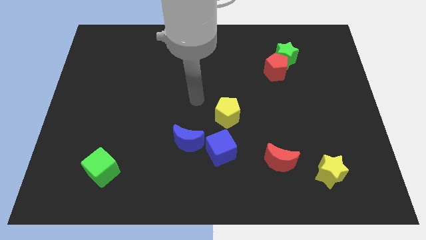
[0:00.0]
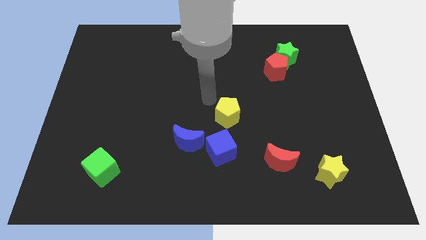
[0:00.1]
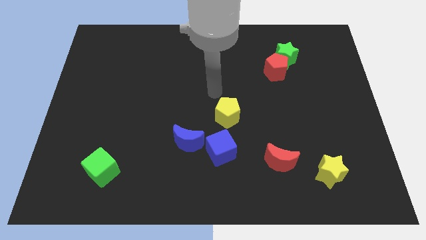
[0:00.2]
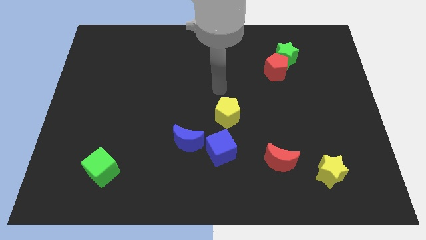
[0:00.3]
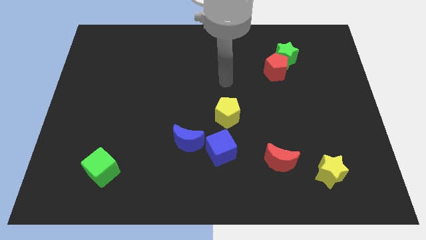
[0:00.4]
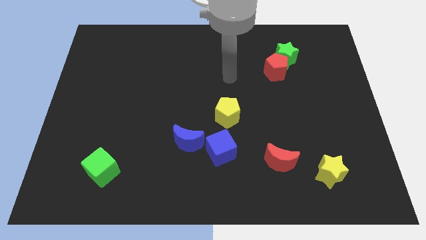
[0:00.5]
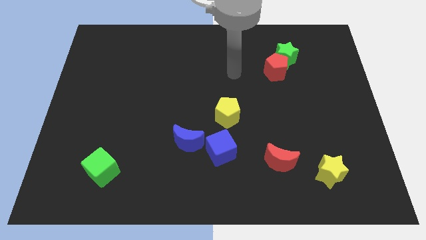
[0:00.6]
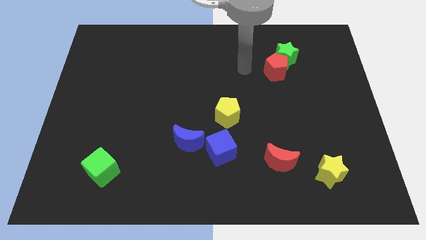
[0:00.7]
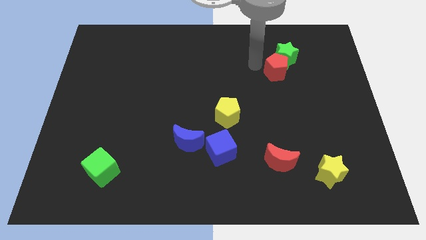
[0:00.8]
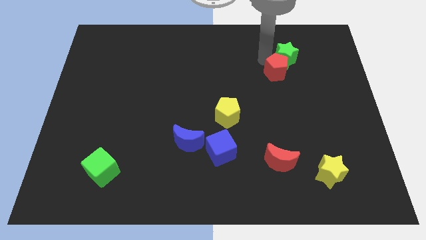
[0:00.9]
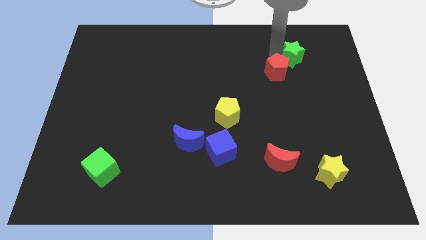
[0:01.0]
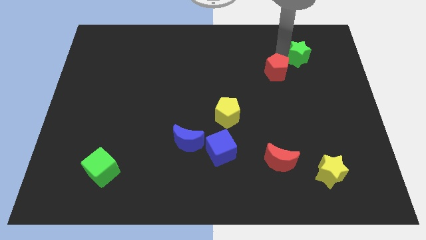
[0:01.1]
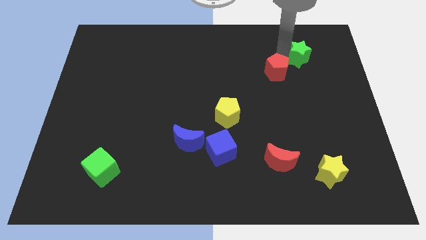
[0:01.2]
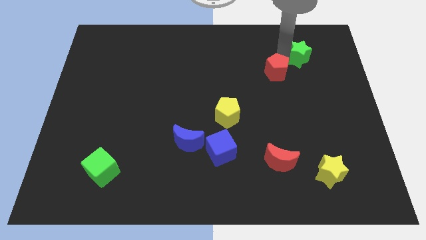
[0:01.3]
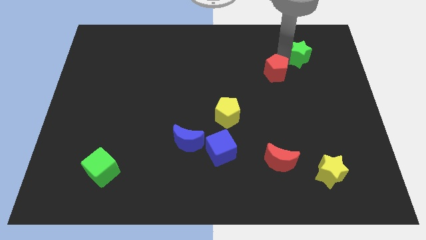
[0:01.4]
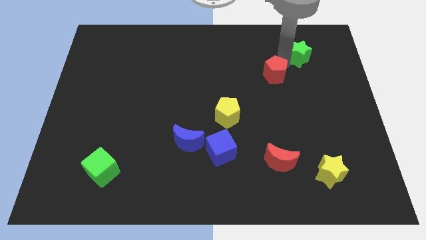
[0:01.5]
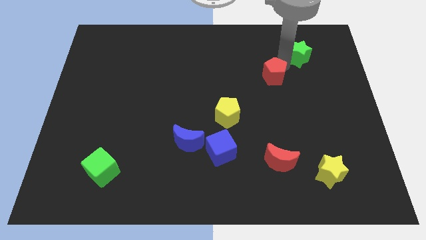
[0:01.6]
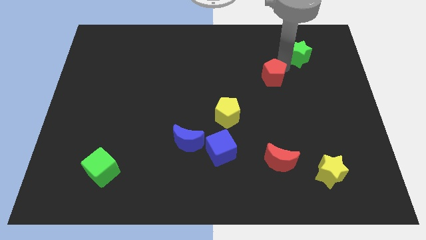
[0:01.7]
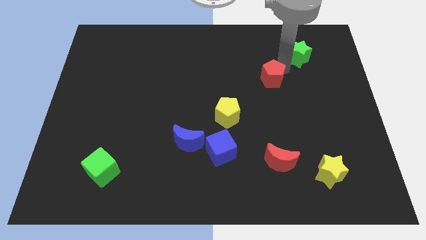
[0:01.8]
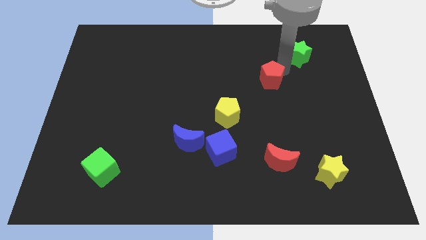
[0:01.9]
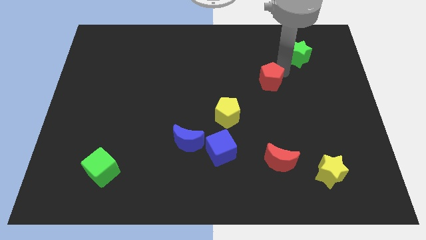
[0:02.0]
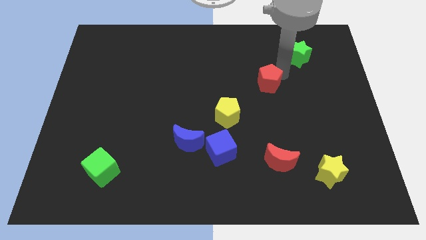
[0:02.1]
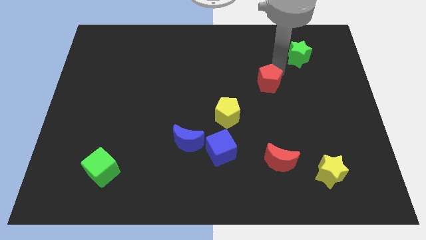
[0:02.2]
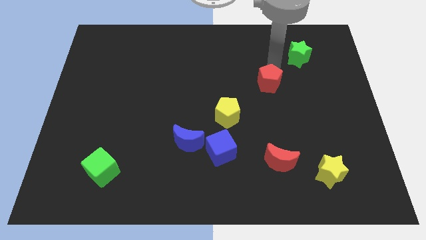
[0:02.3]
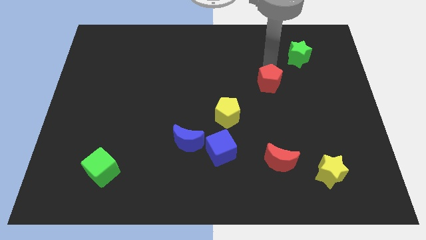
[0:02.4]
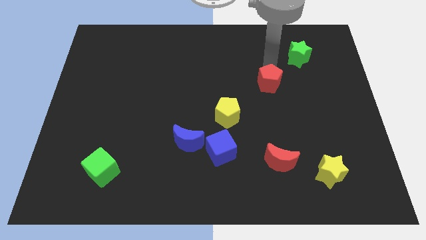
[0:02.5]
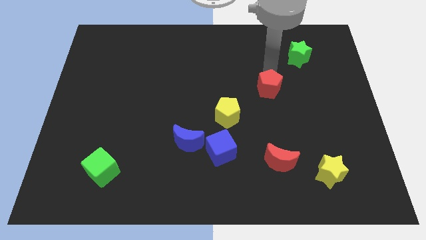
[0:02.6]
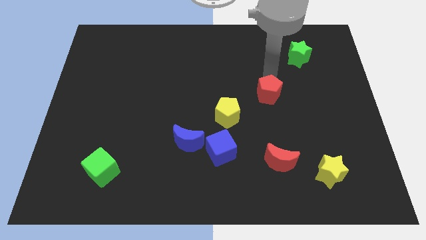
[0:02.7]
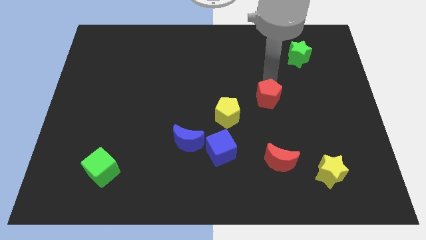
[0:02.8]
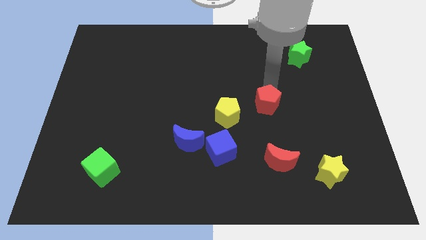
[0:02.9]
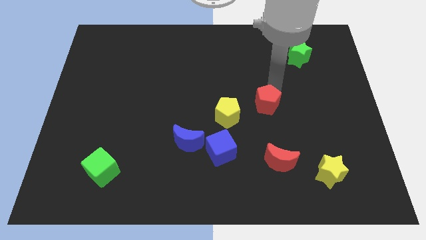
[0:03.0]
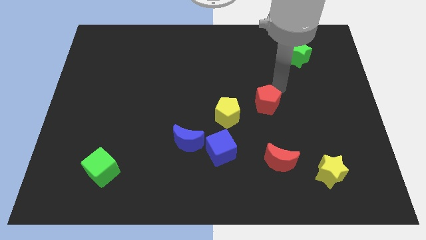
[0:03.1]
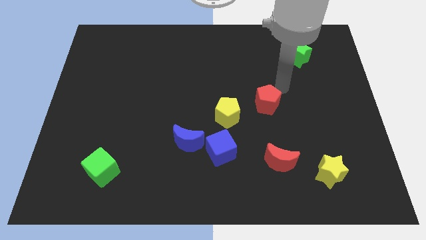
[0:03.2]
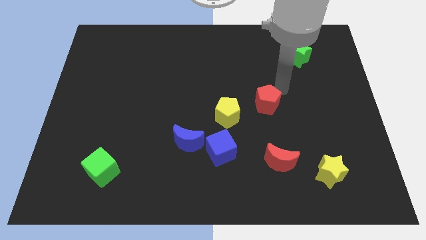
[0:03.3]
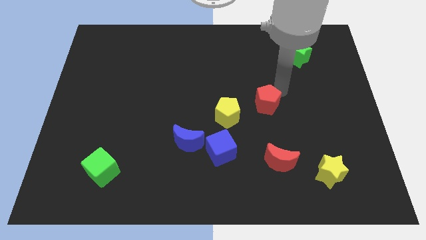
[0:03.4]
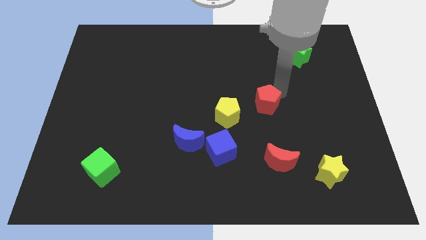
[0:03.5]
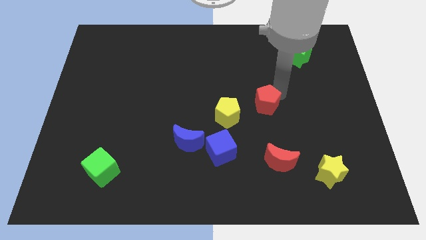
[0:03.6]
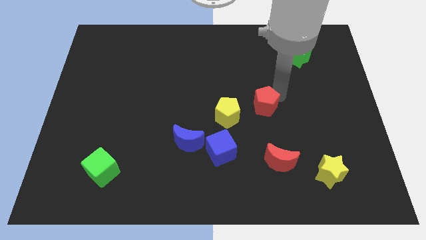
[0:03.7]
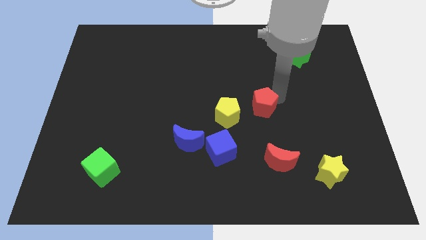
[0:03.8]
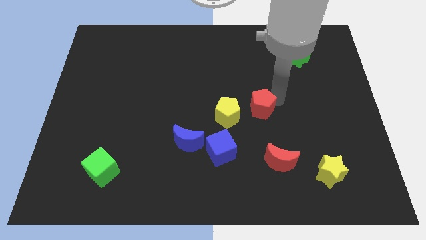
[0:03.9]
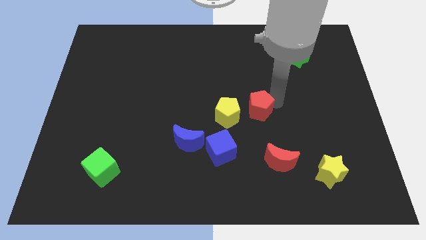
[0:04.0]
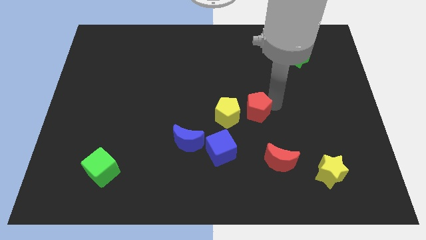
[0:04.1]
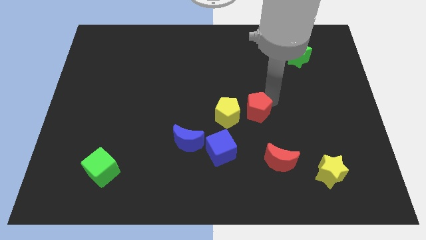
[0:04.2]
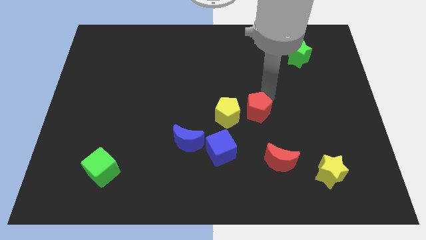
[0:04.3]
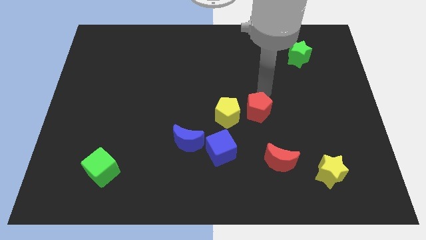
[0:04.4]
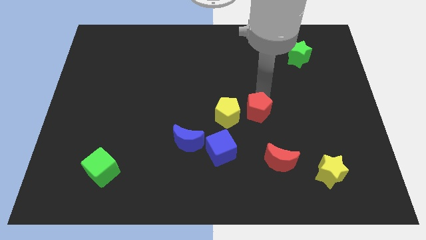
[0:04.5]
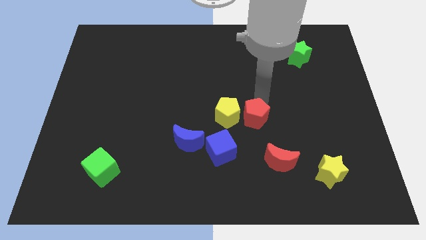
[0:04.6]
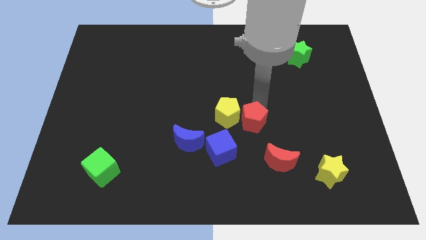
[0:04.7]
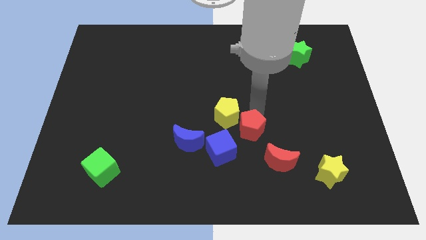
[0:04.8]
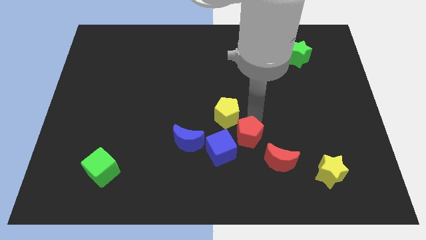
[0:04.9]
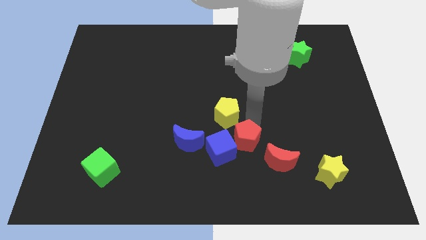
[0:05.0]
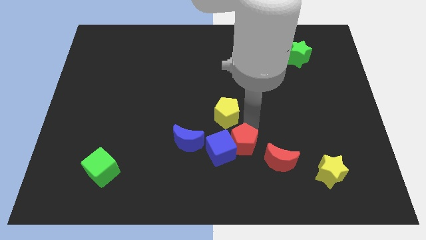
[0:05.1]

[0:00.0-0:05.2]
move the red pentagon diagonally down and to the right of the blue cube
